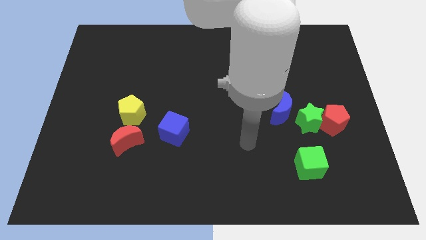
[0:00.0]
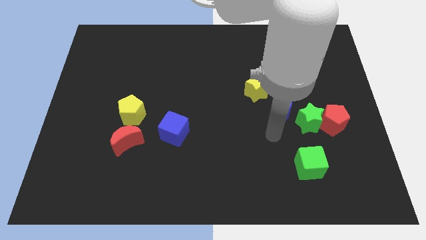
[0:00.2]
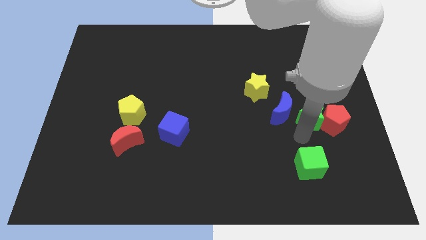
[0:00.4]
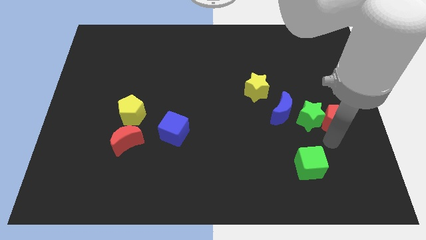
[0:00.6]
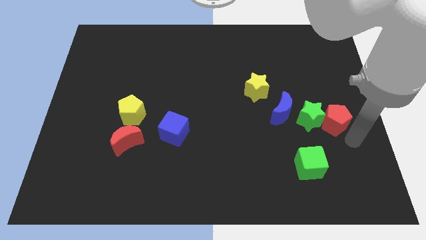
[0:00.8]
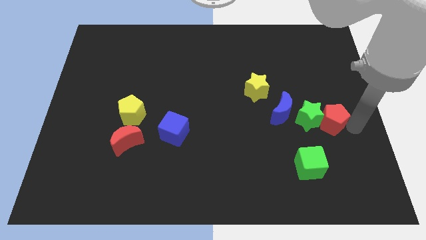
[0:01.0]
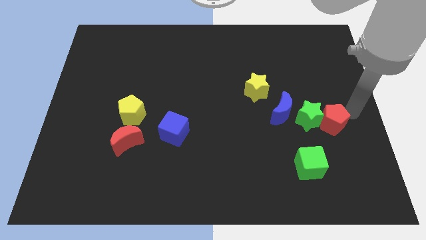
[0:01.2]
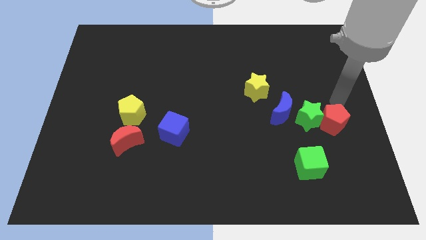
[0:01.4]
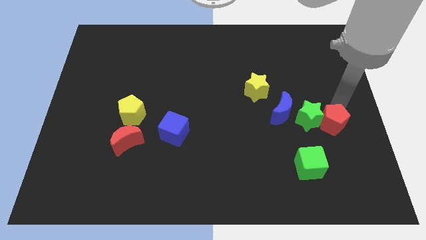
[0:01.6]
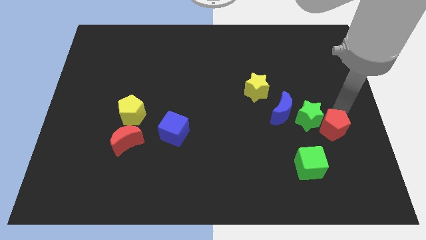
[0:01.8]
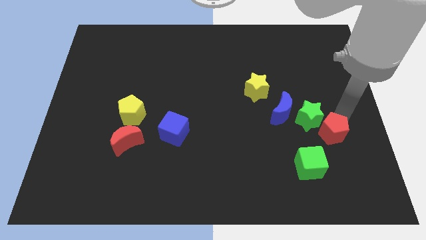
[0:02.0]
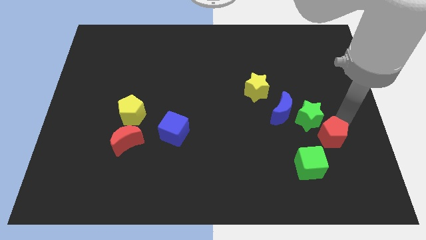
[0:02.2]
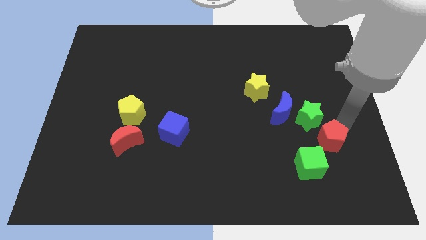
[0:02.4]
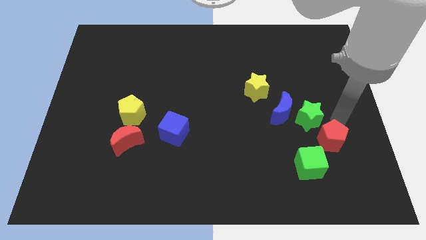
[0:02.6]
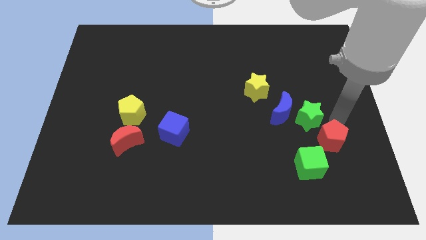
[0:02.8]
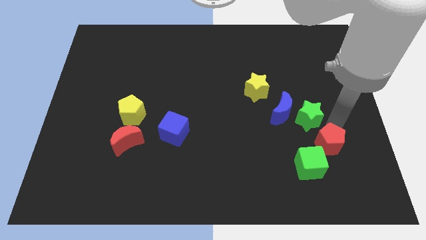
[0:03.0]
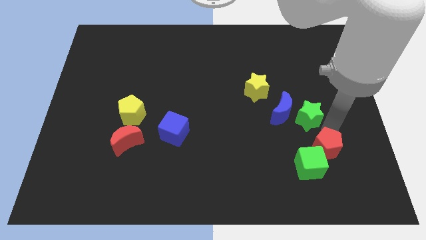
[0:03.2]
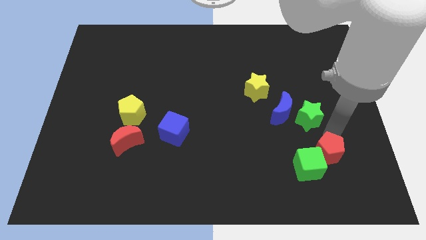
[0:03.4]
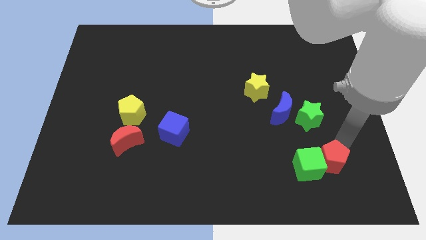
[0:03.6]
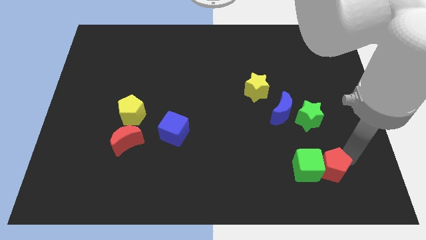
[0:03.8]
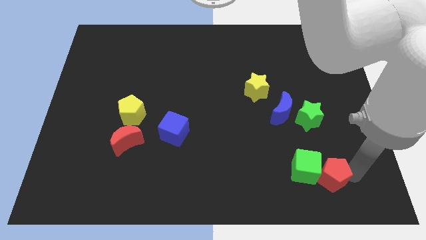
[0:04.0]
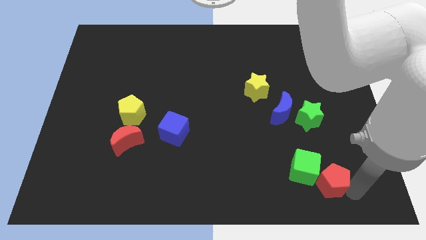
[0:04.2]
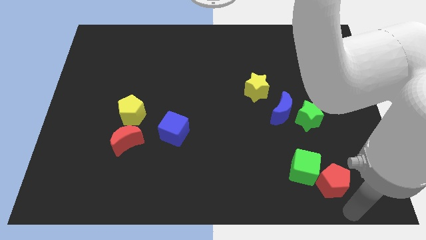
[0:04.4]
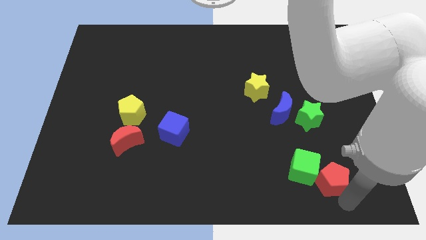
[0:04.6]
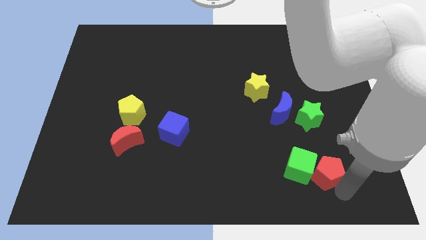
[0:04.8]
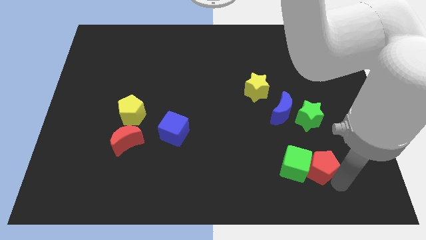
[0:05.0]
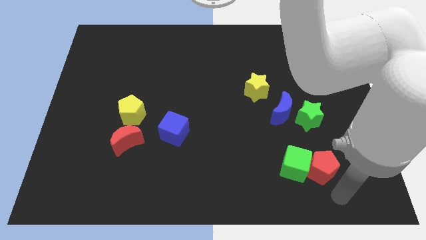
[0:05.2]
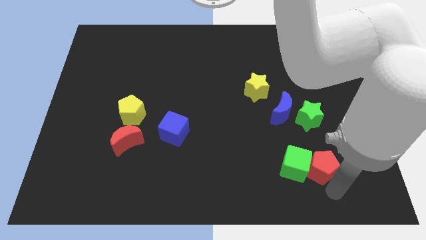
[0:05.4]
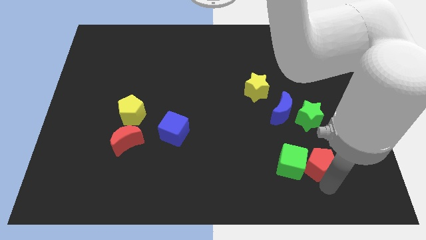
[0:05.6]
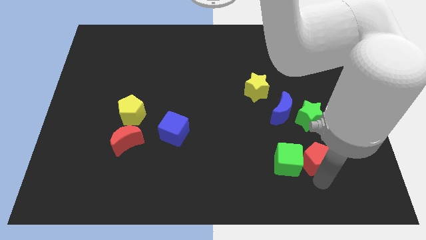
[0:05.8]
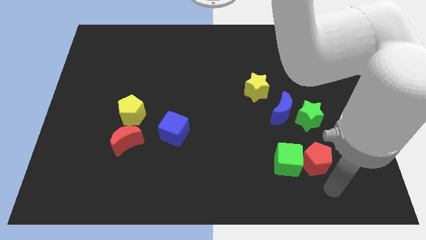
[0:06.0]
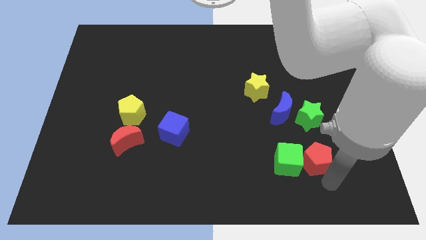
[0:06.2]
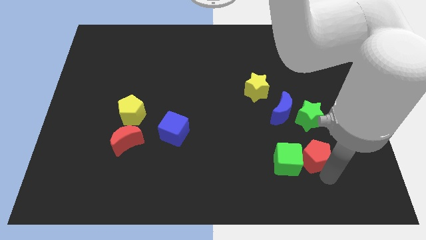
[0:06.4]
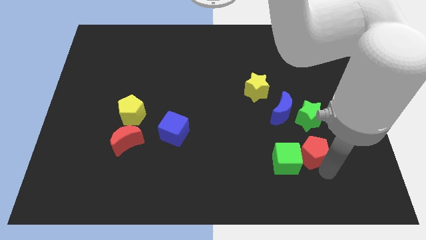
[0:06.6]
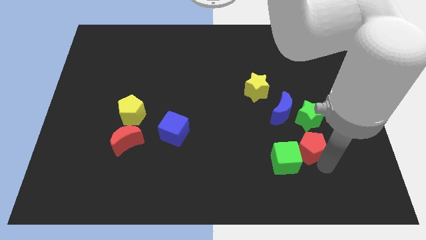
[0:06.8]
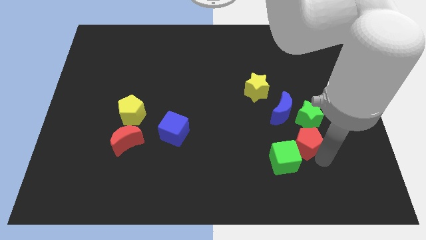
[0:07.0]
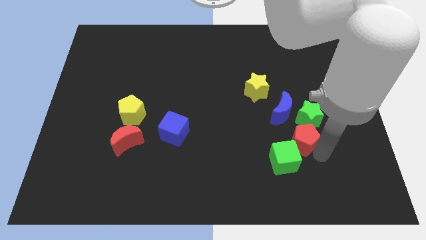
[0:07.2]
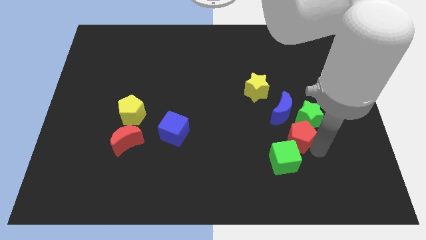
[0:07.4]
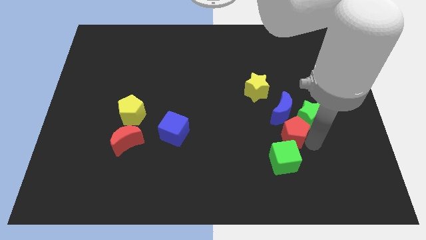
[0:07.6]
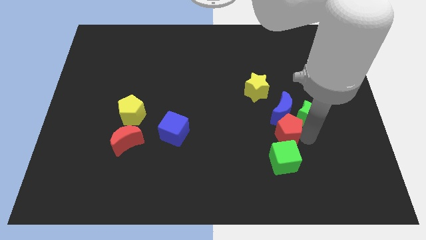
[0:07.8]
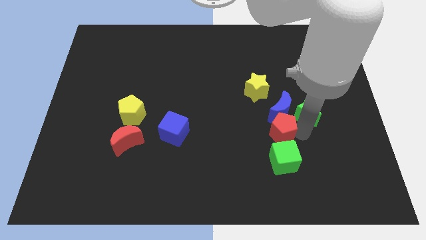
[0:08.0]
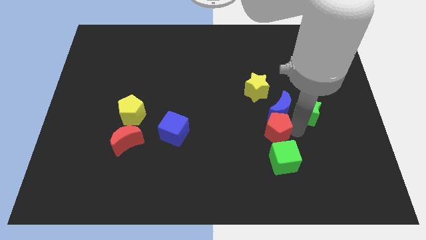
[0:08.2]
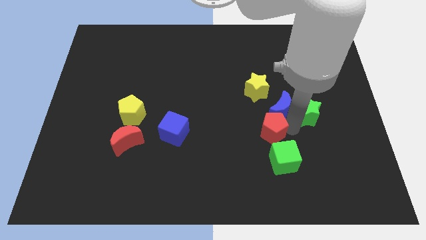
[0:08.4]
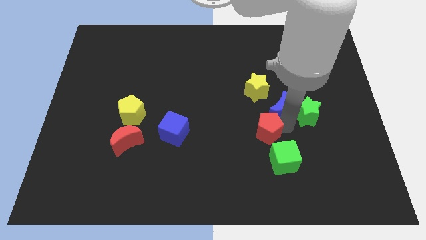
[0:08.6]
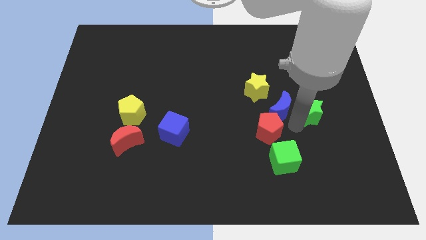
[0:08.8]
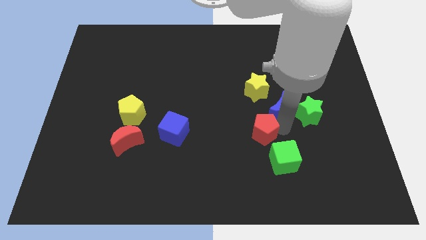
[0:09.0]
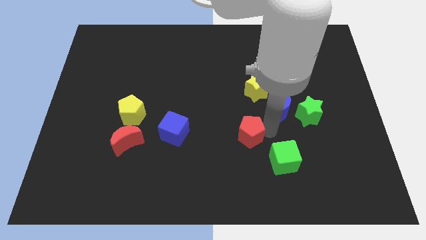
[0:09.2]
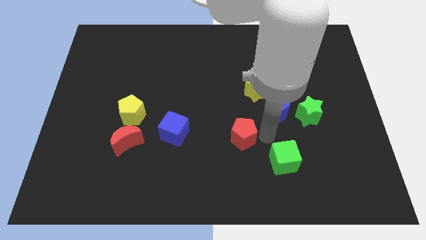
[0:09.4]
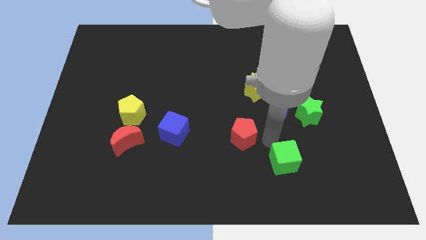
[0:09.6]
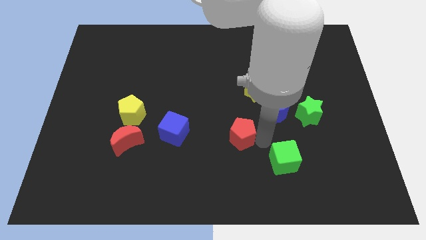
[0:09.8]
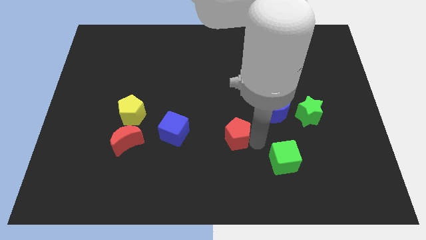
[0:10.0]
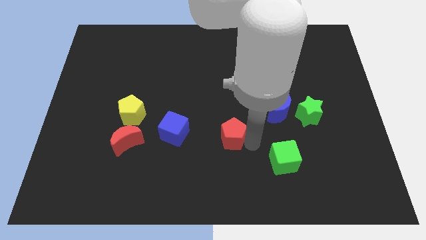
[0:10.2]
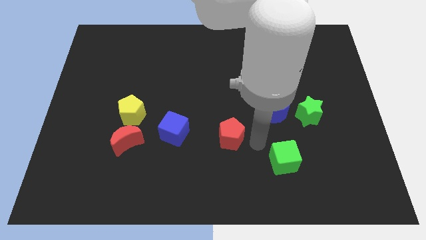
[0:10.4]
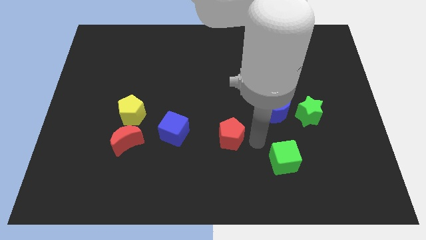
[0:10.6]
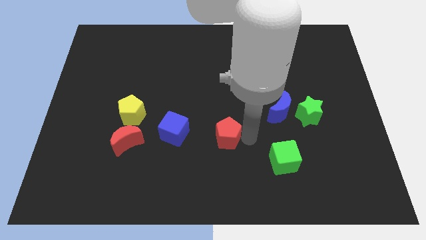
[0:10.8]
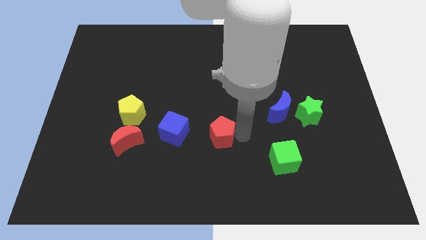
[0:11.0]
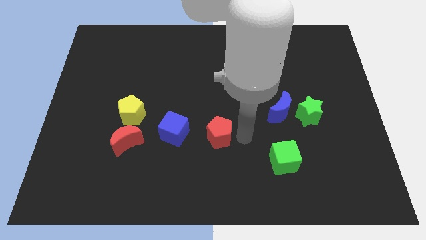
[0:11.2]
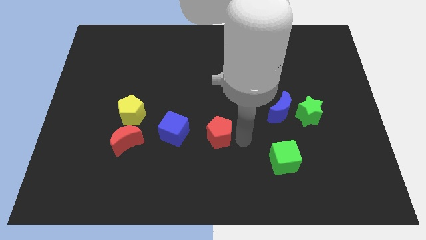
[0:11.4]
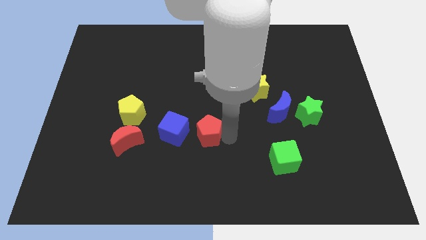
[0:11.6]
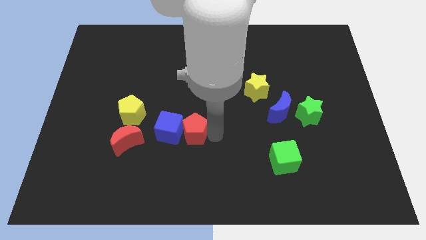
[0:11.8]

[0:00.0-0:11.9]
move the red pentagon towards the blue cube

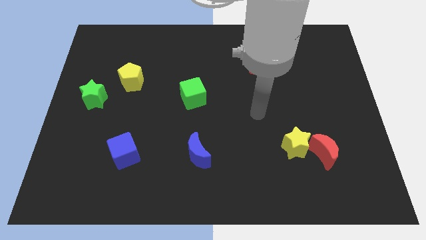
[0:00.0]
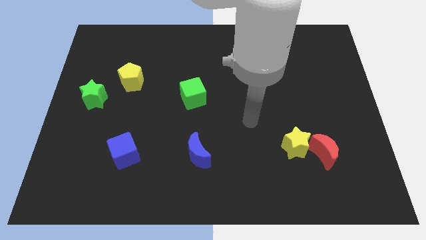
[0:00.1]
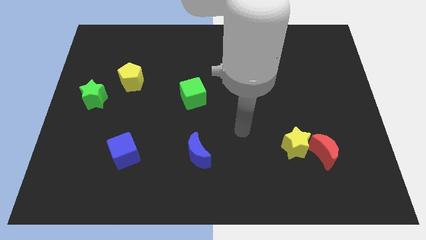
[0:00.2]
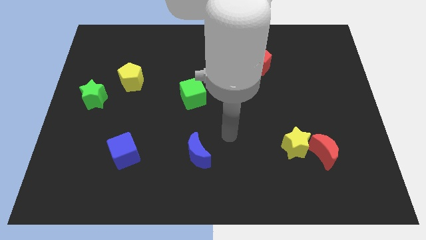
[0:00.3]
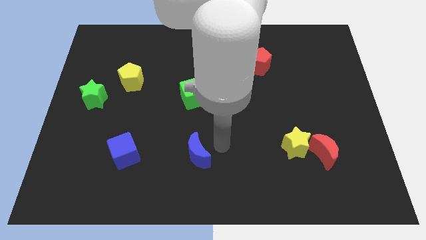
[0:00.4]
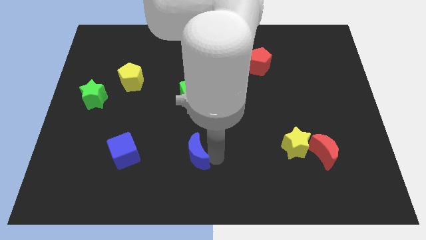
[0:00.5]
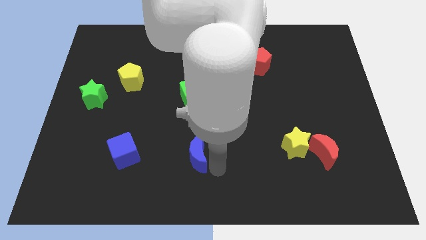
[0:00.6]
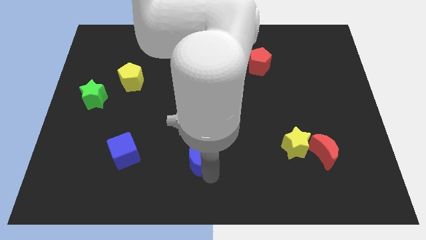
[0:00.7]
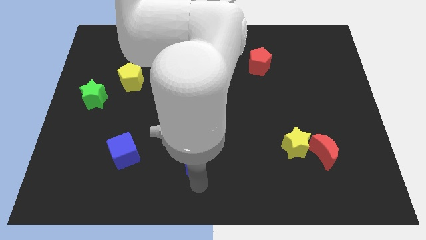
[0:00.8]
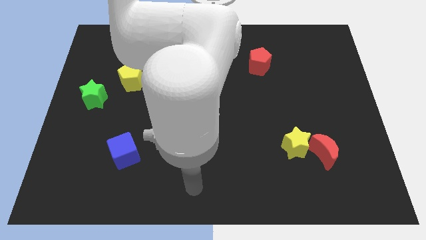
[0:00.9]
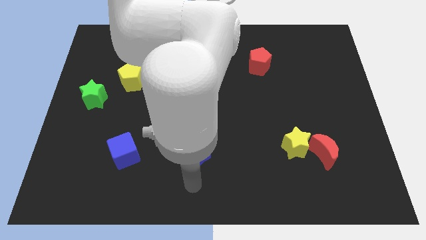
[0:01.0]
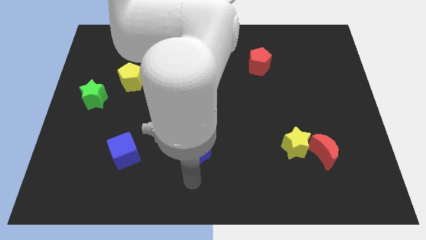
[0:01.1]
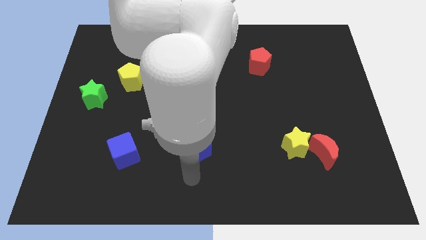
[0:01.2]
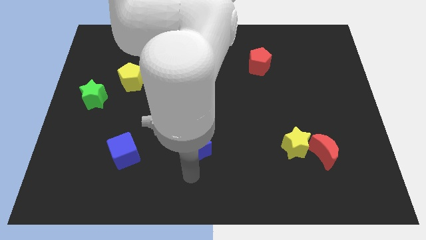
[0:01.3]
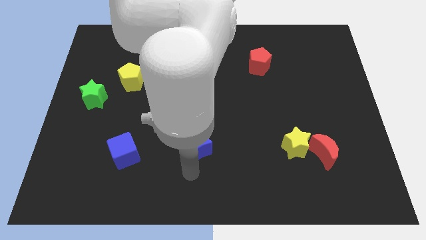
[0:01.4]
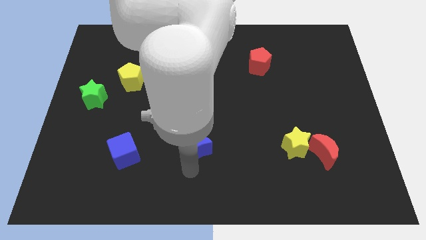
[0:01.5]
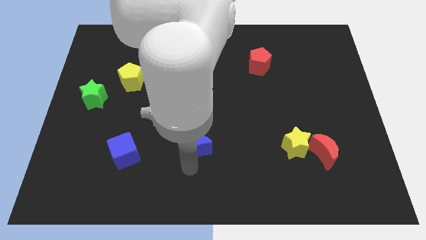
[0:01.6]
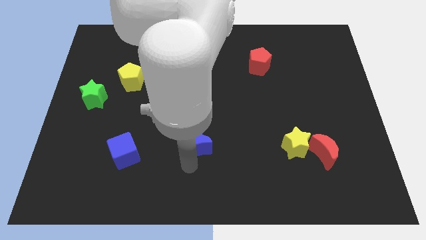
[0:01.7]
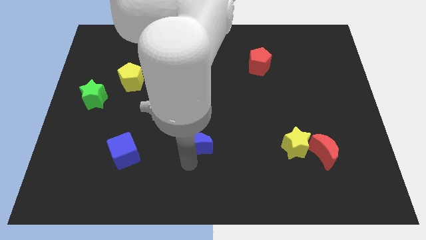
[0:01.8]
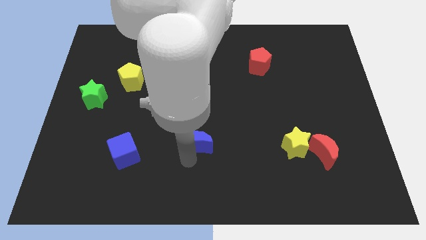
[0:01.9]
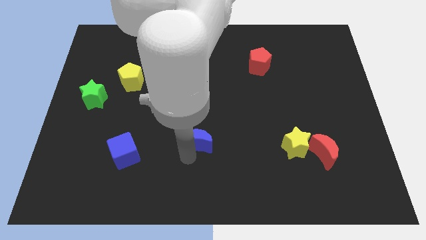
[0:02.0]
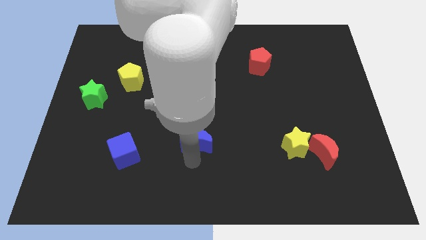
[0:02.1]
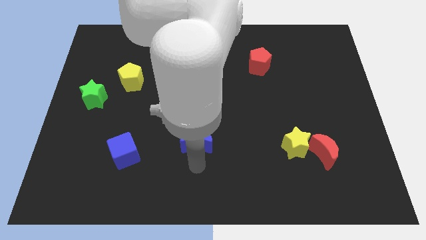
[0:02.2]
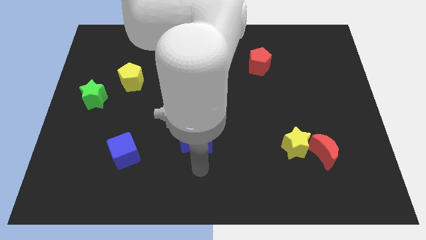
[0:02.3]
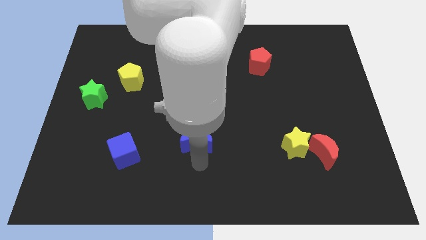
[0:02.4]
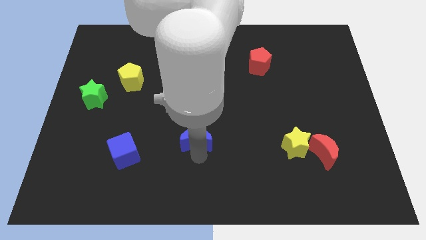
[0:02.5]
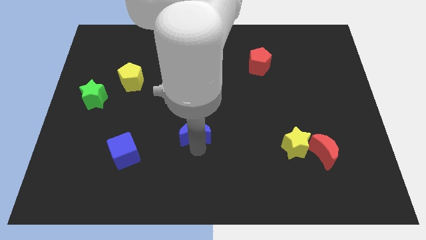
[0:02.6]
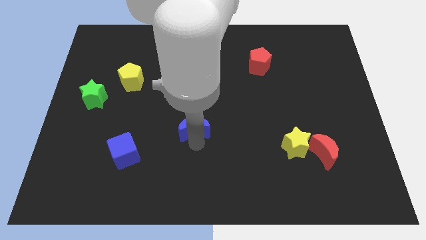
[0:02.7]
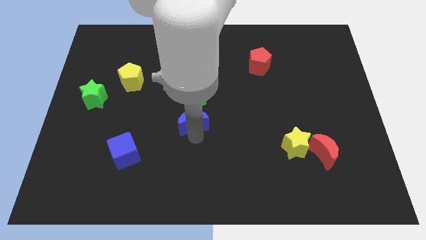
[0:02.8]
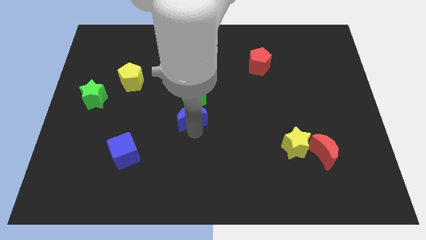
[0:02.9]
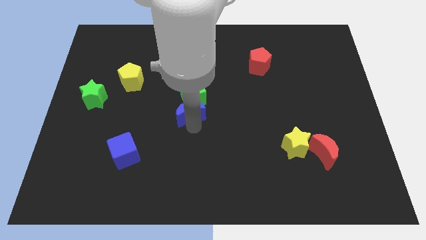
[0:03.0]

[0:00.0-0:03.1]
move the blue moon next to the green cube
